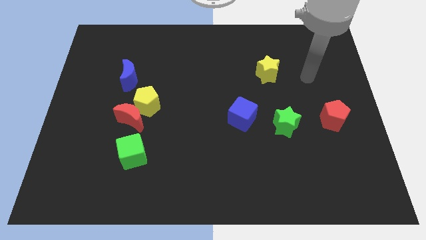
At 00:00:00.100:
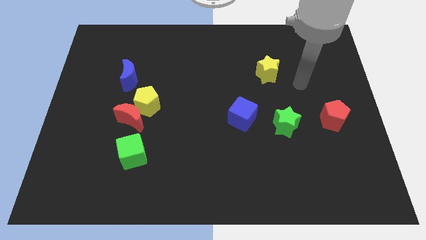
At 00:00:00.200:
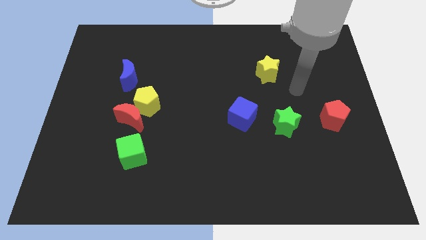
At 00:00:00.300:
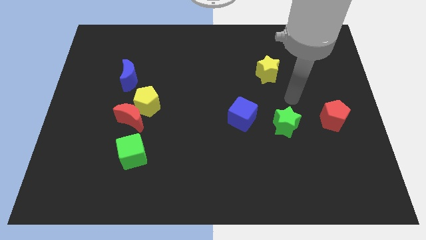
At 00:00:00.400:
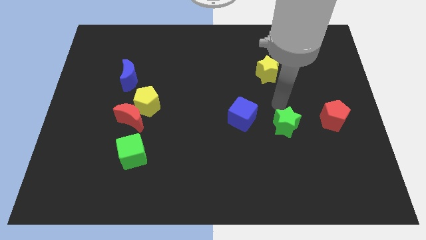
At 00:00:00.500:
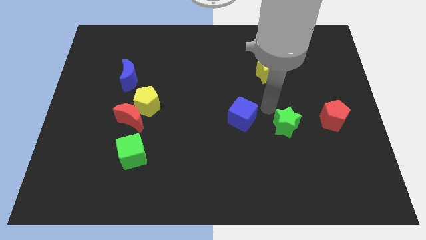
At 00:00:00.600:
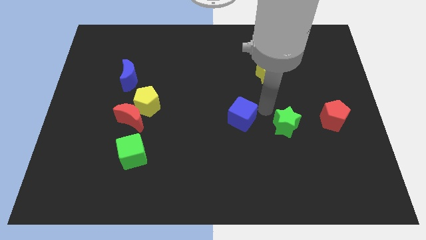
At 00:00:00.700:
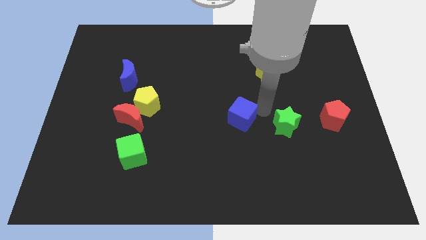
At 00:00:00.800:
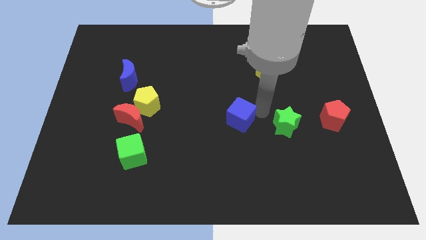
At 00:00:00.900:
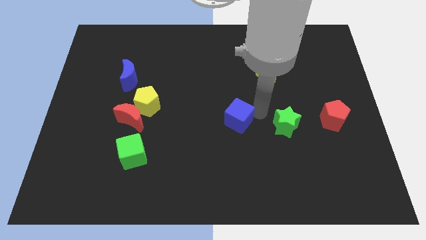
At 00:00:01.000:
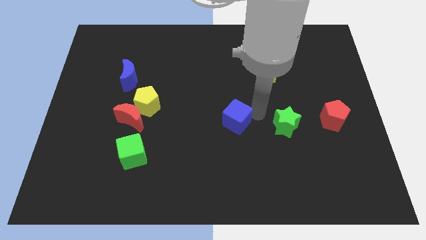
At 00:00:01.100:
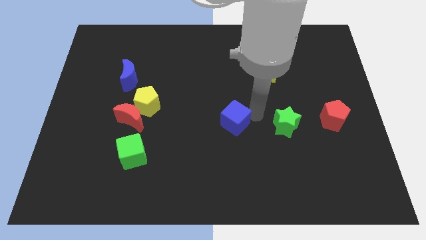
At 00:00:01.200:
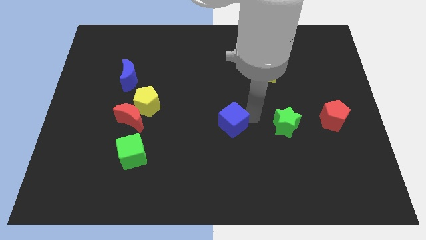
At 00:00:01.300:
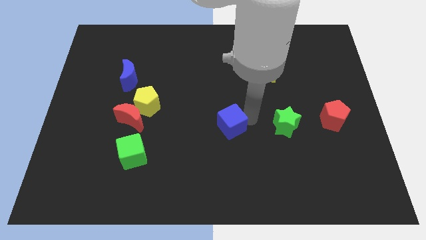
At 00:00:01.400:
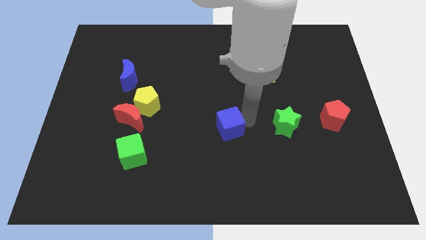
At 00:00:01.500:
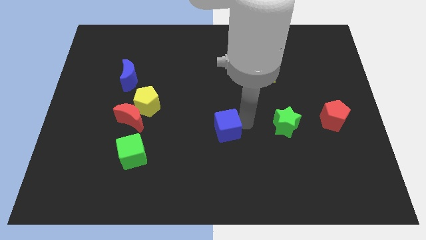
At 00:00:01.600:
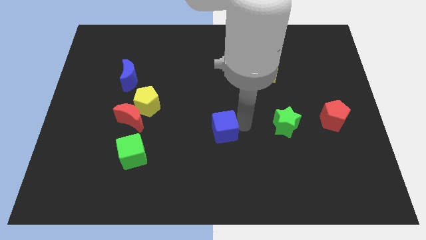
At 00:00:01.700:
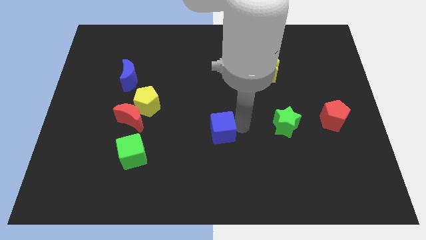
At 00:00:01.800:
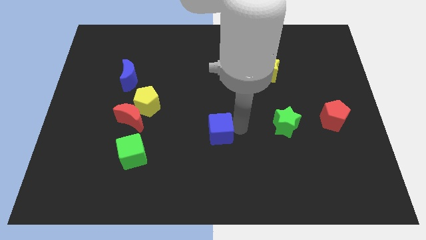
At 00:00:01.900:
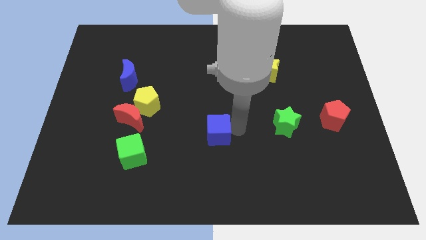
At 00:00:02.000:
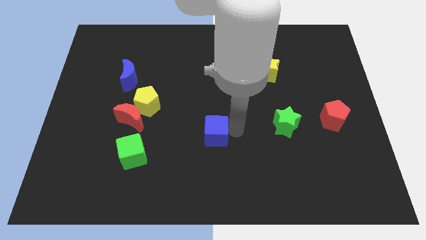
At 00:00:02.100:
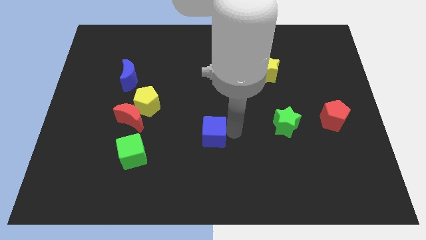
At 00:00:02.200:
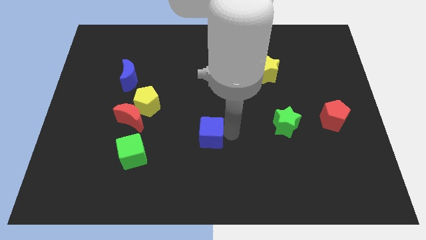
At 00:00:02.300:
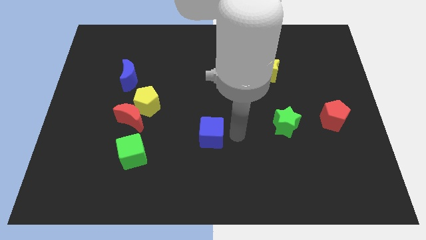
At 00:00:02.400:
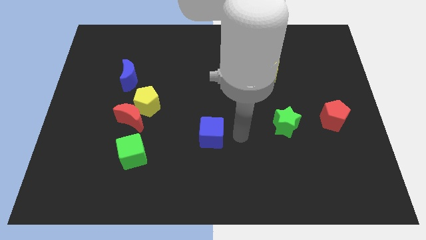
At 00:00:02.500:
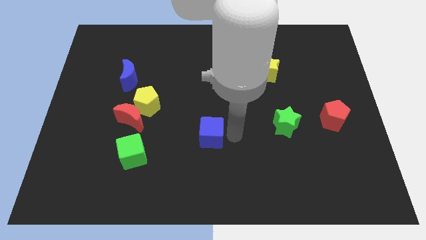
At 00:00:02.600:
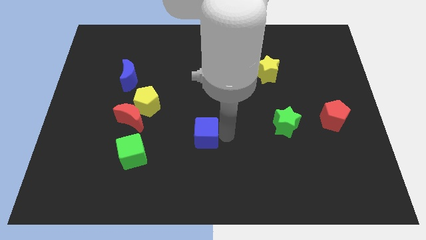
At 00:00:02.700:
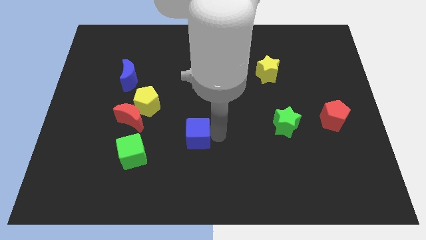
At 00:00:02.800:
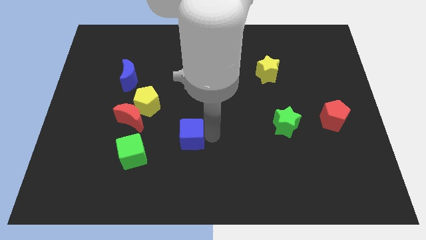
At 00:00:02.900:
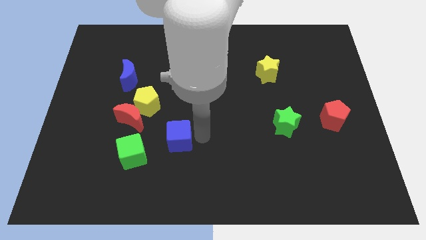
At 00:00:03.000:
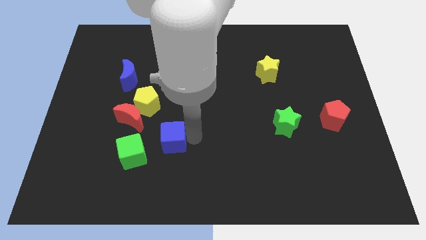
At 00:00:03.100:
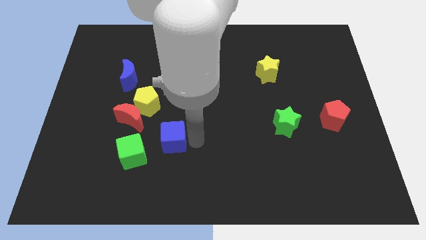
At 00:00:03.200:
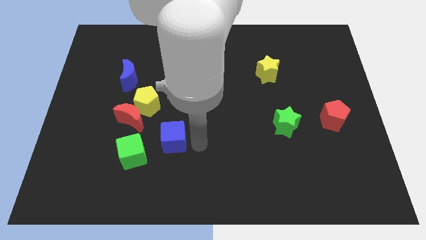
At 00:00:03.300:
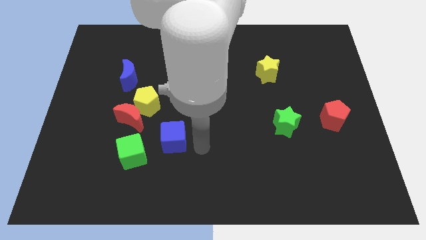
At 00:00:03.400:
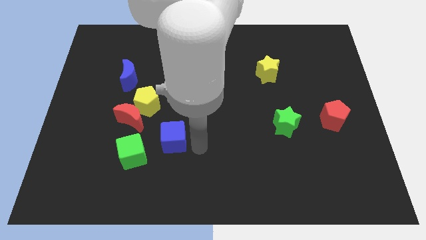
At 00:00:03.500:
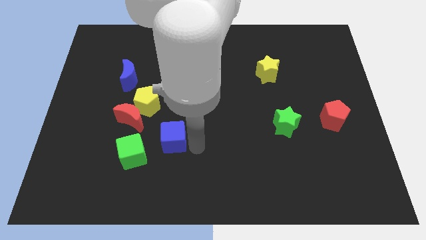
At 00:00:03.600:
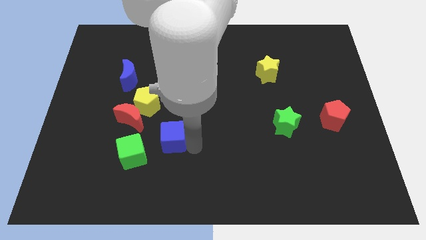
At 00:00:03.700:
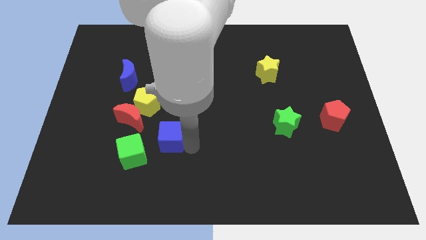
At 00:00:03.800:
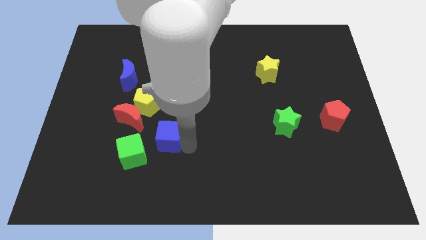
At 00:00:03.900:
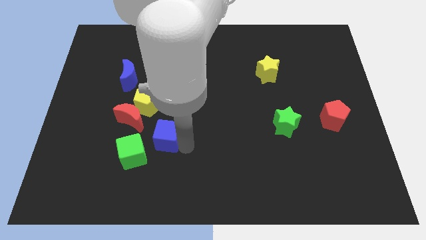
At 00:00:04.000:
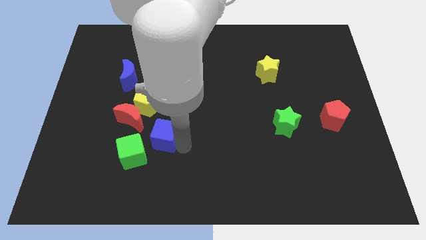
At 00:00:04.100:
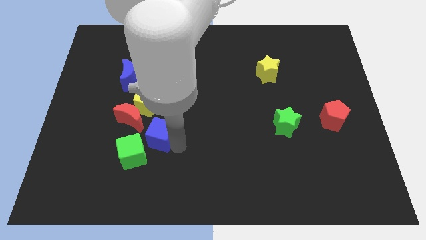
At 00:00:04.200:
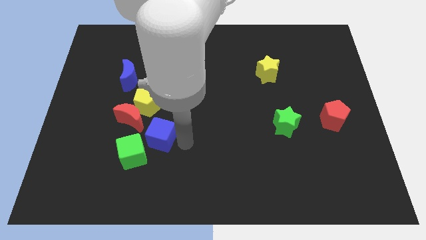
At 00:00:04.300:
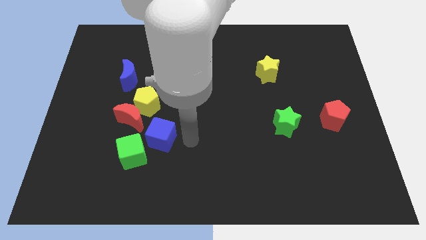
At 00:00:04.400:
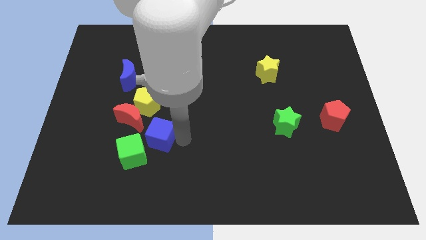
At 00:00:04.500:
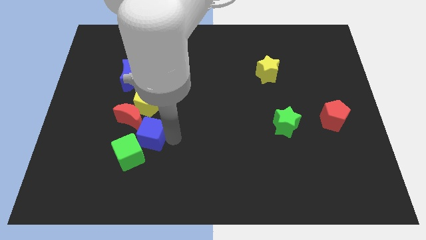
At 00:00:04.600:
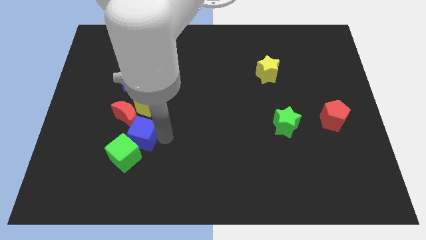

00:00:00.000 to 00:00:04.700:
push the blue cube left

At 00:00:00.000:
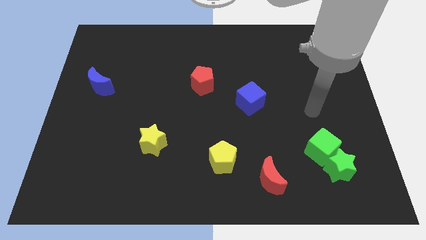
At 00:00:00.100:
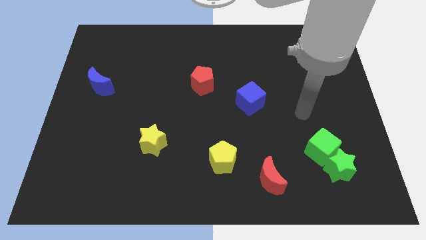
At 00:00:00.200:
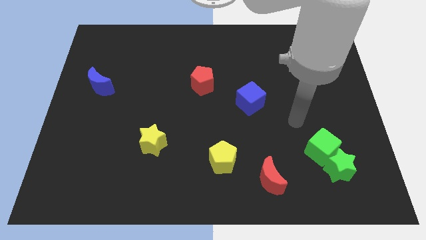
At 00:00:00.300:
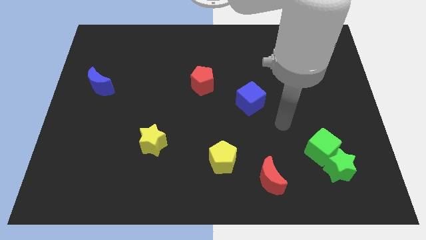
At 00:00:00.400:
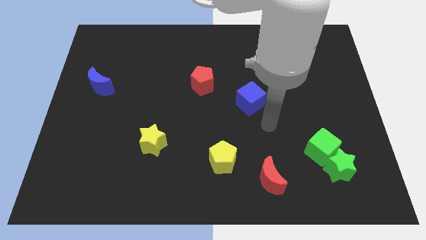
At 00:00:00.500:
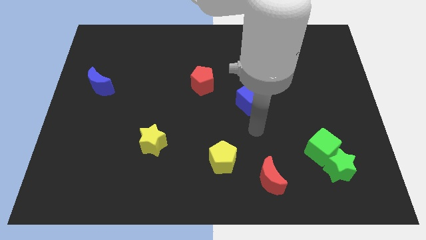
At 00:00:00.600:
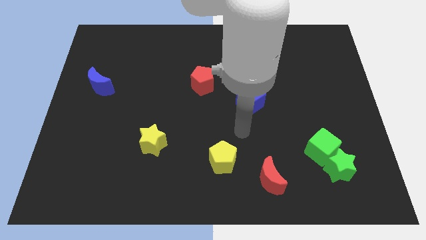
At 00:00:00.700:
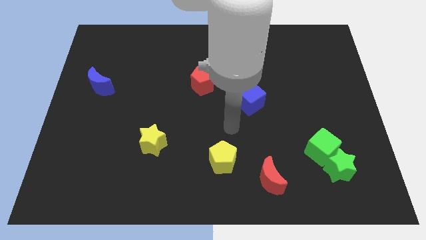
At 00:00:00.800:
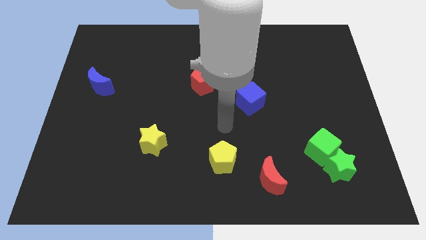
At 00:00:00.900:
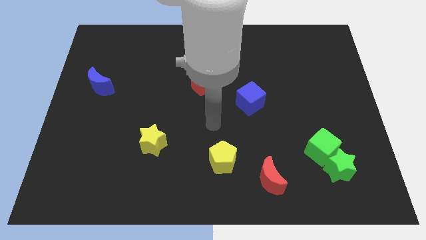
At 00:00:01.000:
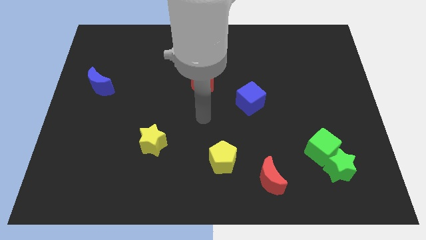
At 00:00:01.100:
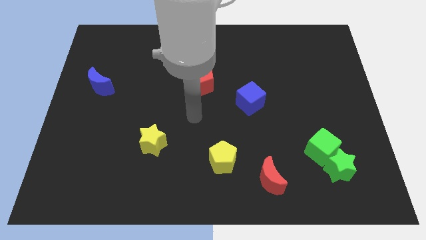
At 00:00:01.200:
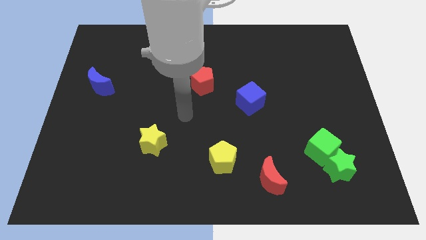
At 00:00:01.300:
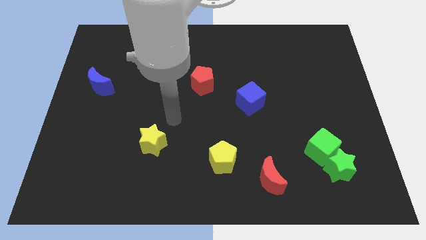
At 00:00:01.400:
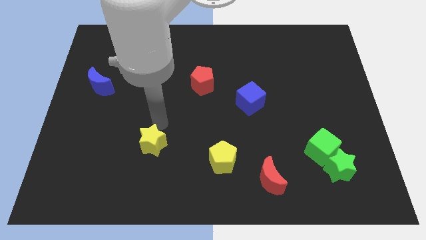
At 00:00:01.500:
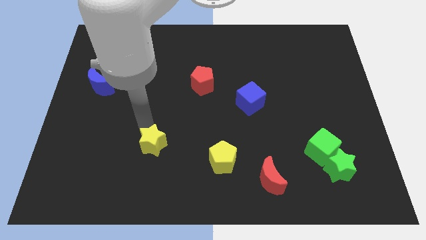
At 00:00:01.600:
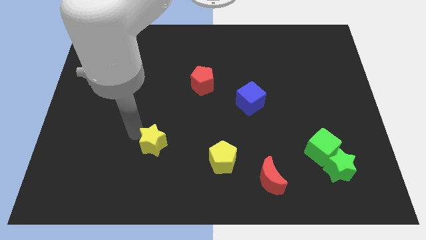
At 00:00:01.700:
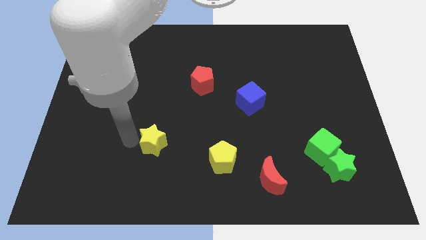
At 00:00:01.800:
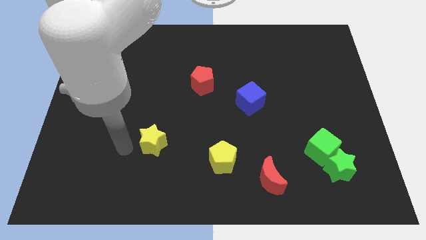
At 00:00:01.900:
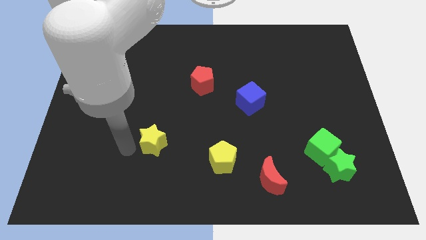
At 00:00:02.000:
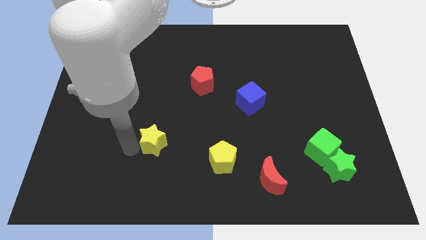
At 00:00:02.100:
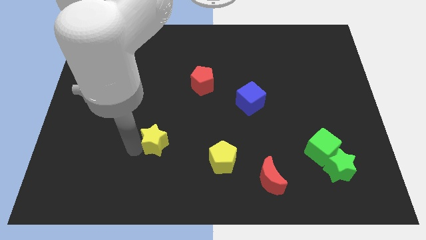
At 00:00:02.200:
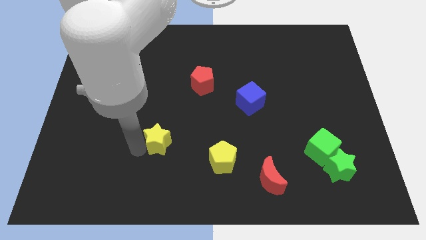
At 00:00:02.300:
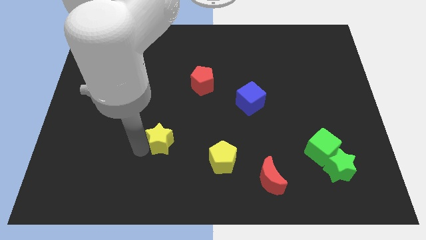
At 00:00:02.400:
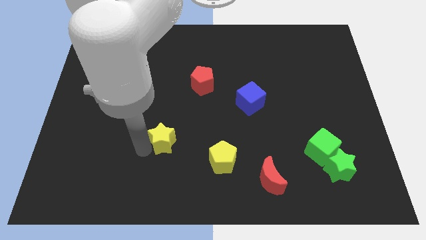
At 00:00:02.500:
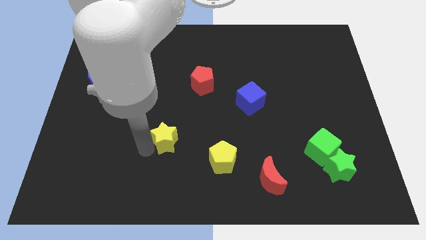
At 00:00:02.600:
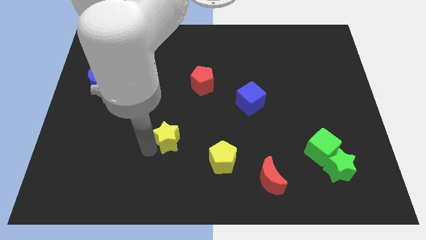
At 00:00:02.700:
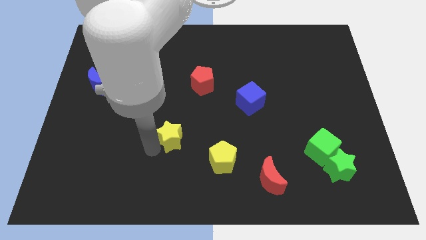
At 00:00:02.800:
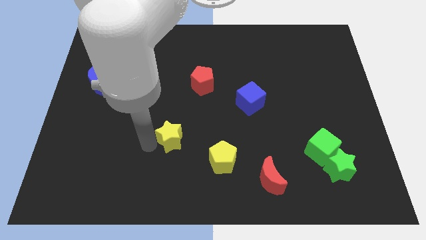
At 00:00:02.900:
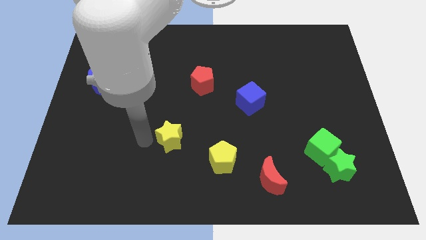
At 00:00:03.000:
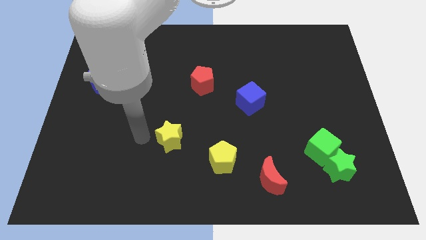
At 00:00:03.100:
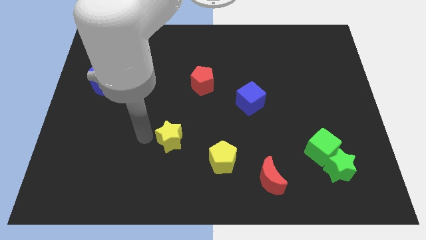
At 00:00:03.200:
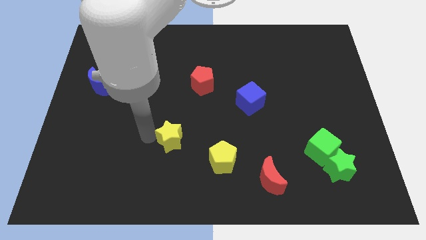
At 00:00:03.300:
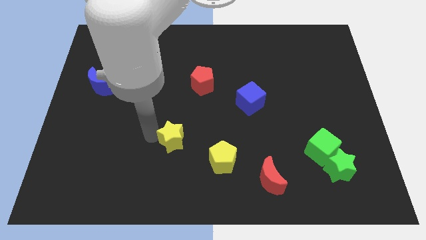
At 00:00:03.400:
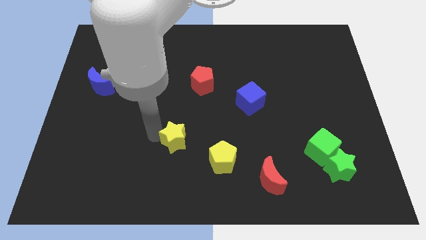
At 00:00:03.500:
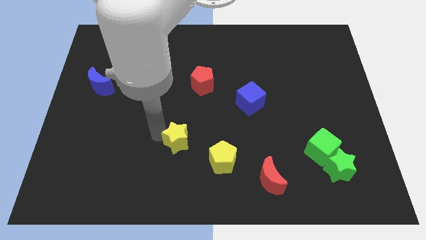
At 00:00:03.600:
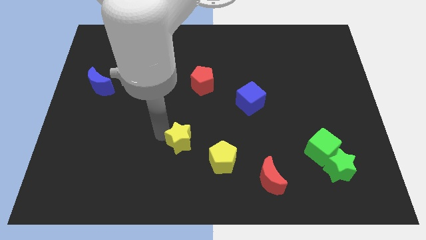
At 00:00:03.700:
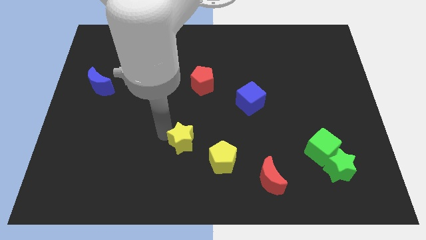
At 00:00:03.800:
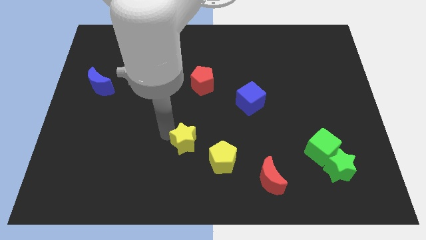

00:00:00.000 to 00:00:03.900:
move the yellow star slightly to the right
